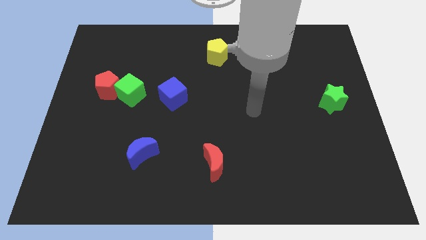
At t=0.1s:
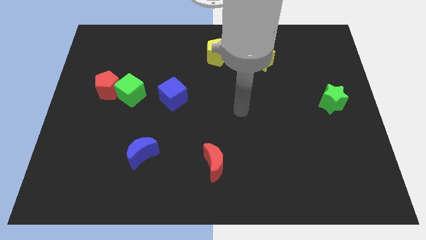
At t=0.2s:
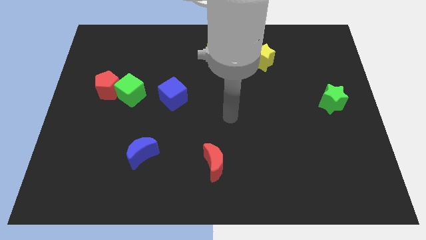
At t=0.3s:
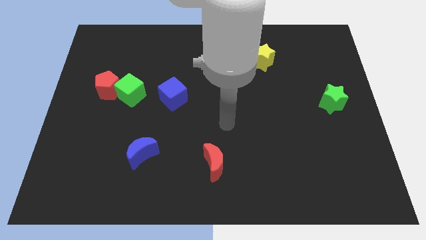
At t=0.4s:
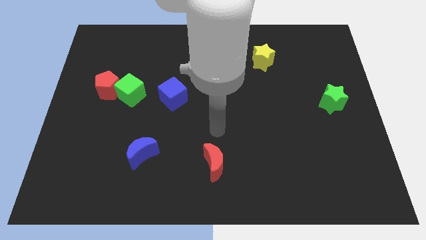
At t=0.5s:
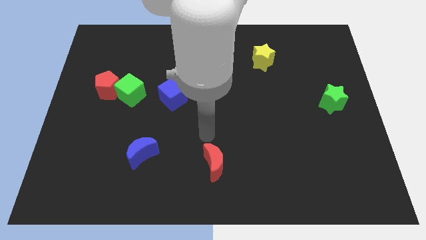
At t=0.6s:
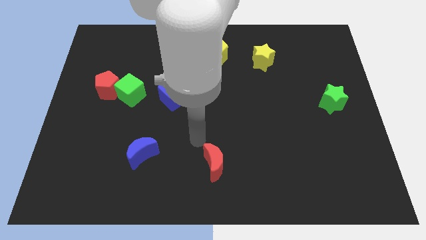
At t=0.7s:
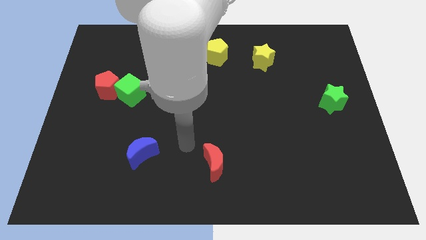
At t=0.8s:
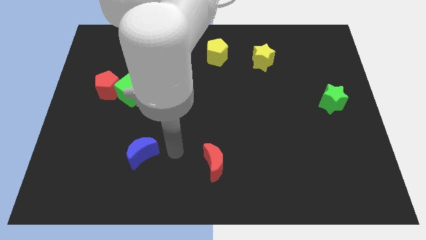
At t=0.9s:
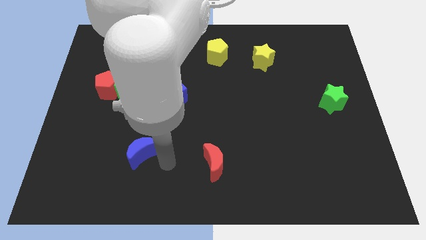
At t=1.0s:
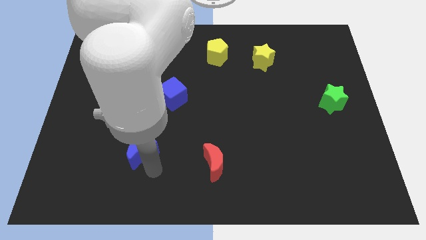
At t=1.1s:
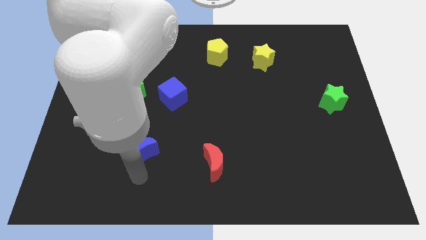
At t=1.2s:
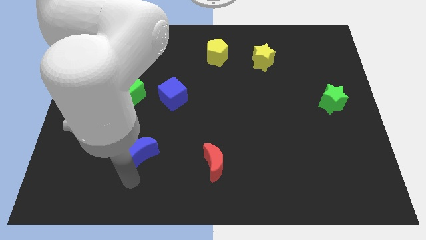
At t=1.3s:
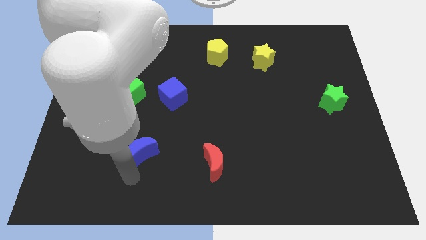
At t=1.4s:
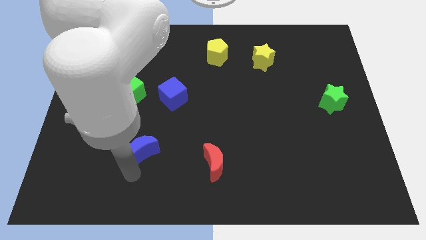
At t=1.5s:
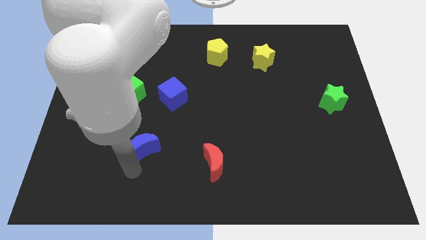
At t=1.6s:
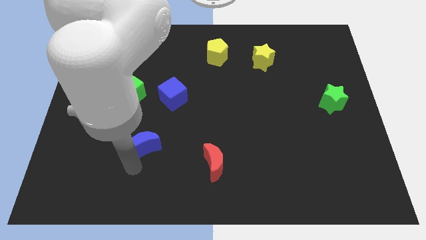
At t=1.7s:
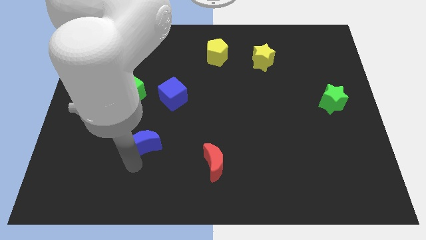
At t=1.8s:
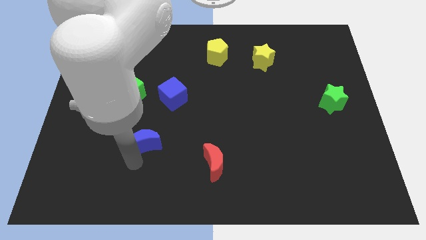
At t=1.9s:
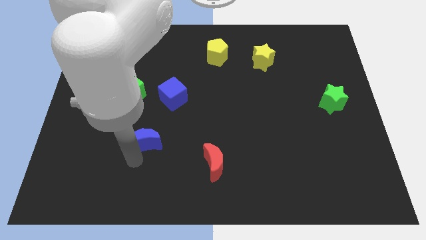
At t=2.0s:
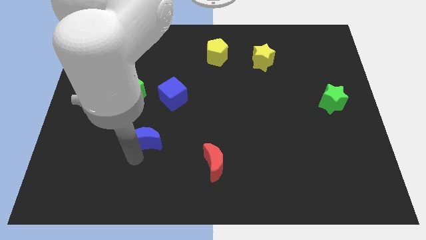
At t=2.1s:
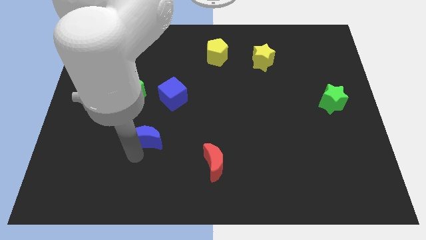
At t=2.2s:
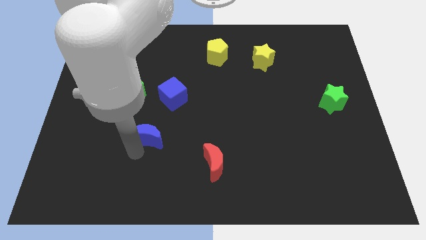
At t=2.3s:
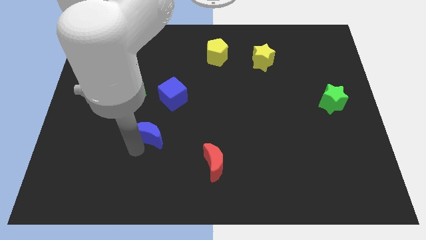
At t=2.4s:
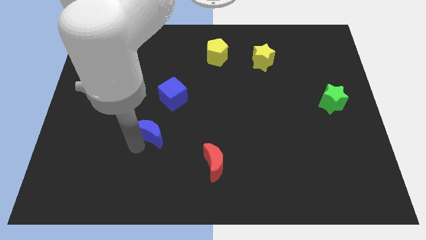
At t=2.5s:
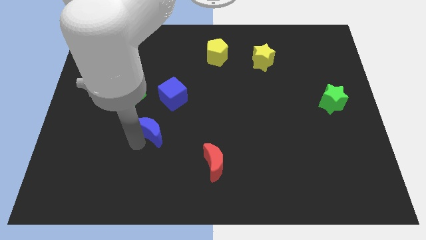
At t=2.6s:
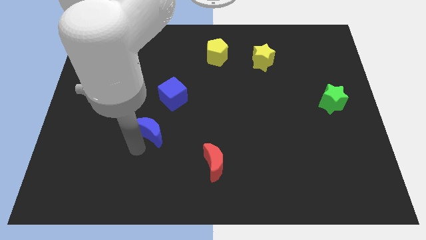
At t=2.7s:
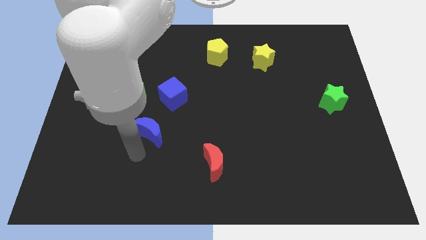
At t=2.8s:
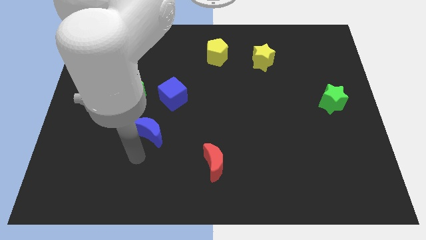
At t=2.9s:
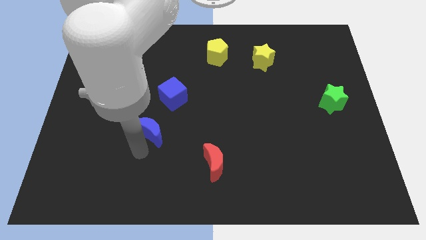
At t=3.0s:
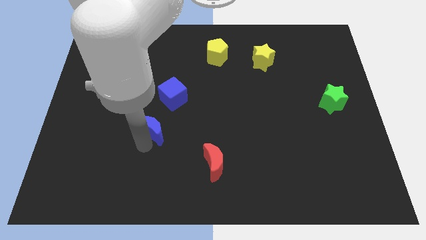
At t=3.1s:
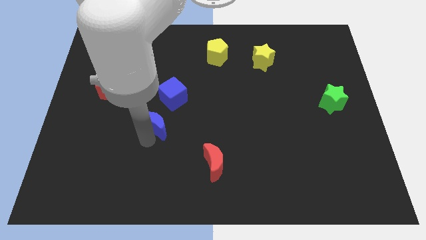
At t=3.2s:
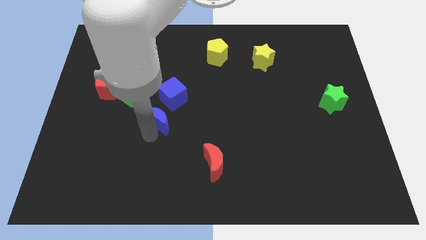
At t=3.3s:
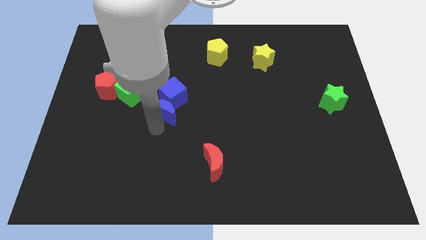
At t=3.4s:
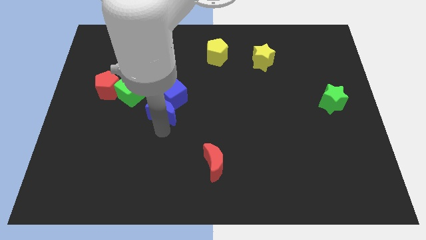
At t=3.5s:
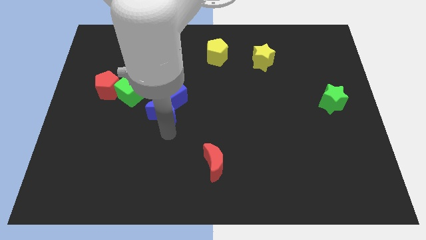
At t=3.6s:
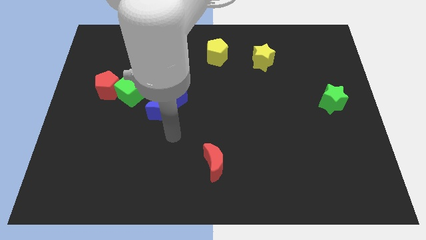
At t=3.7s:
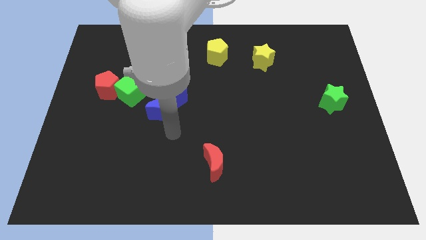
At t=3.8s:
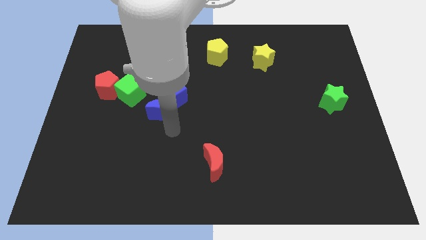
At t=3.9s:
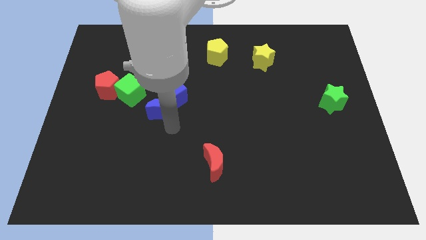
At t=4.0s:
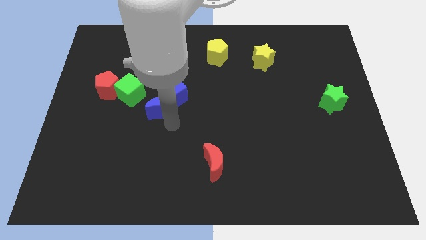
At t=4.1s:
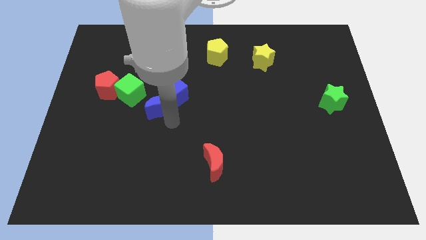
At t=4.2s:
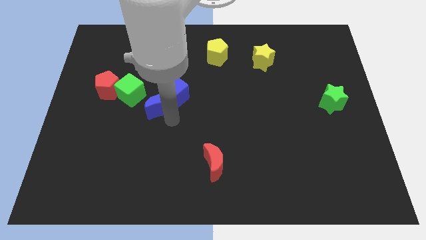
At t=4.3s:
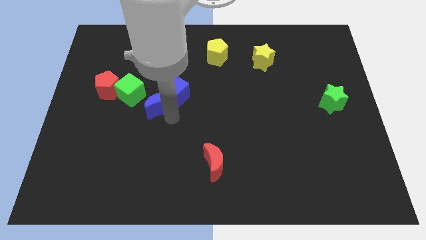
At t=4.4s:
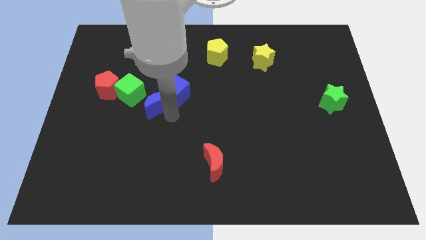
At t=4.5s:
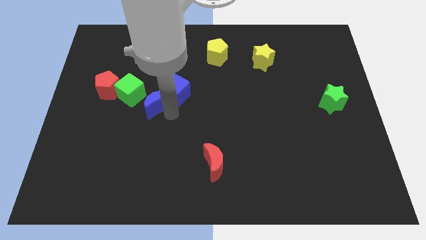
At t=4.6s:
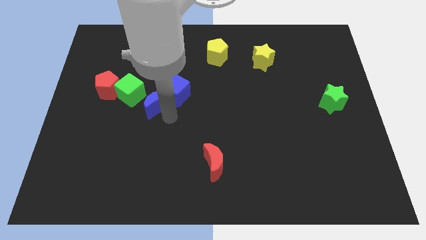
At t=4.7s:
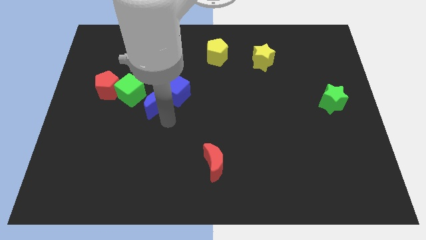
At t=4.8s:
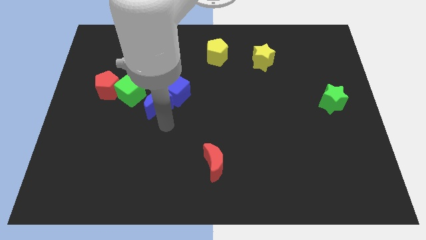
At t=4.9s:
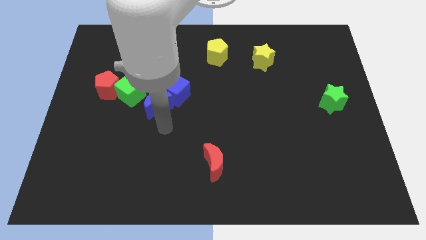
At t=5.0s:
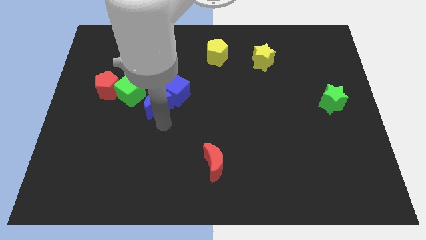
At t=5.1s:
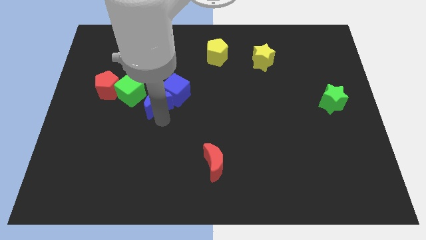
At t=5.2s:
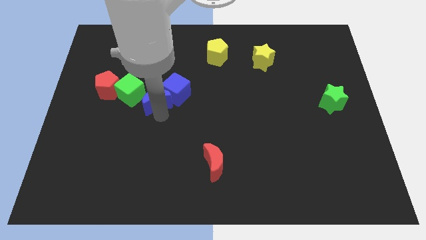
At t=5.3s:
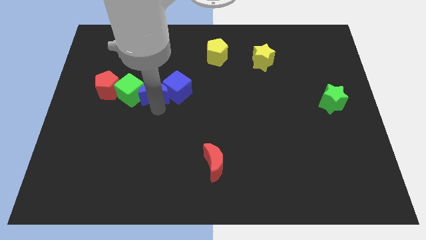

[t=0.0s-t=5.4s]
put the blue moon to the top right side of the green cube

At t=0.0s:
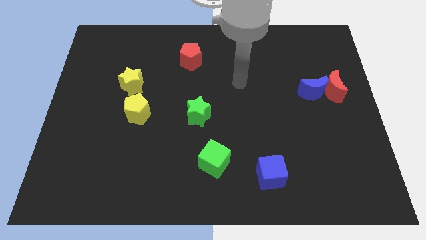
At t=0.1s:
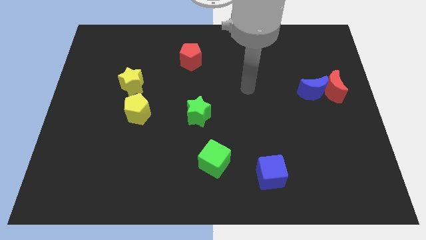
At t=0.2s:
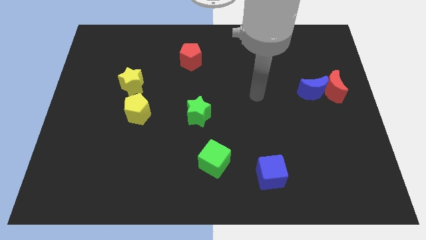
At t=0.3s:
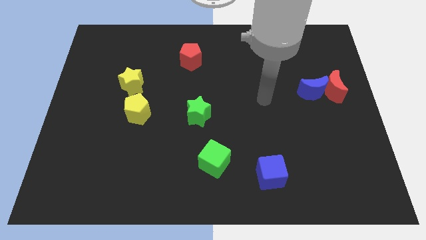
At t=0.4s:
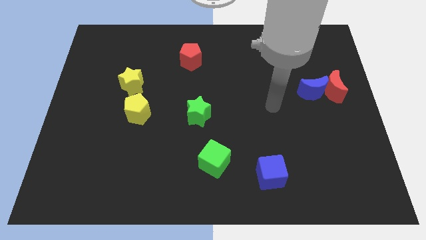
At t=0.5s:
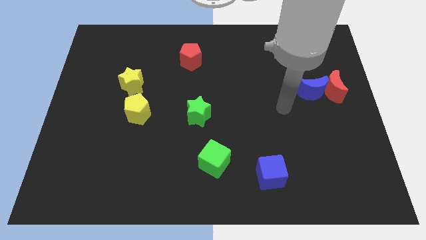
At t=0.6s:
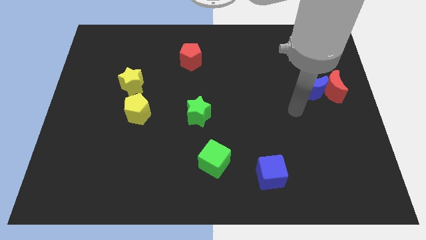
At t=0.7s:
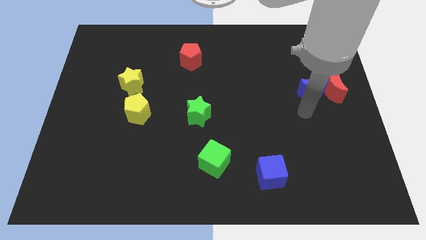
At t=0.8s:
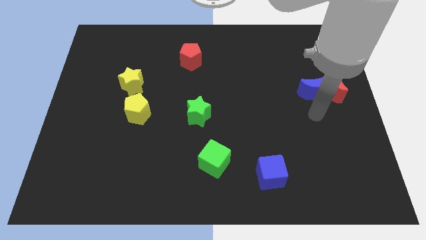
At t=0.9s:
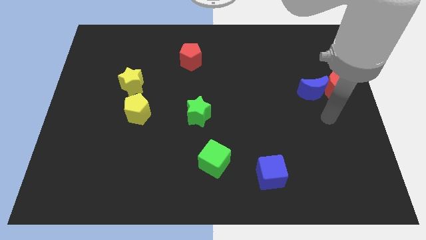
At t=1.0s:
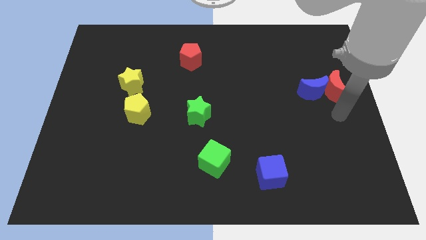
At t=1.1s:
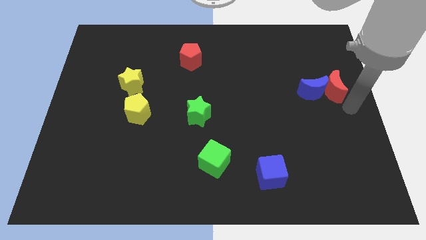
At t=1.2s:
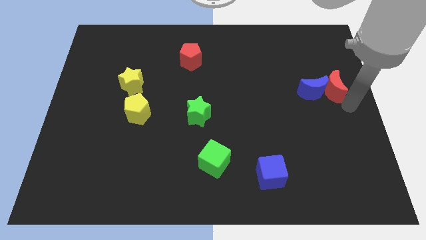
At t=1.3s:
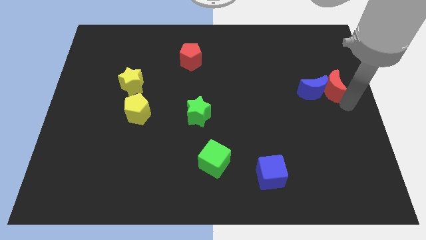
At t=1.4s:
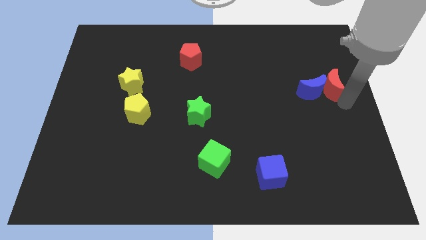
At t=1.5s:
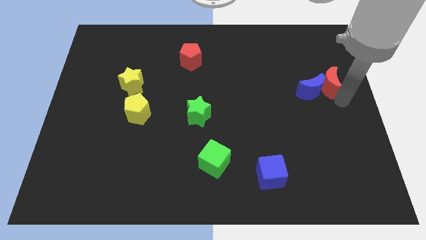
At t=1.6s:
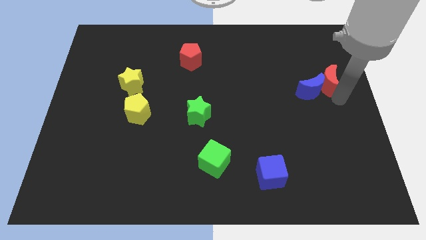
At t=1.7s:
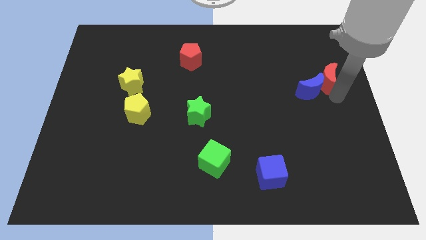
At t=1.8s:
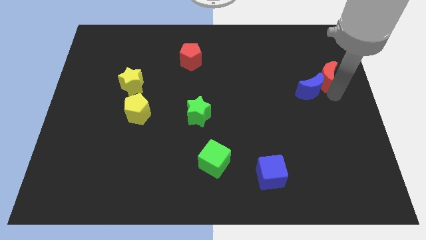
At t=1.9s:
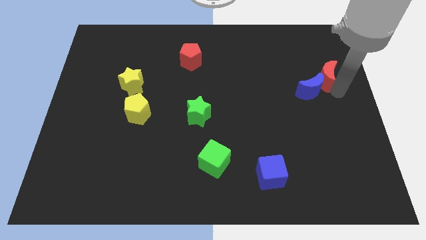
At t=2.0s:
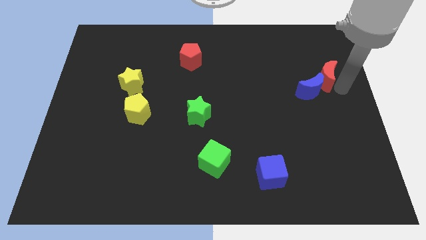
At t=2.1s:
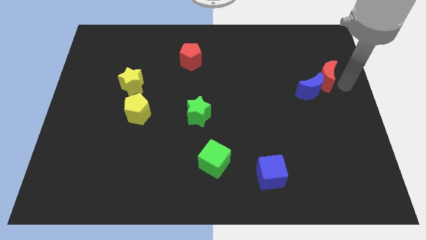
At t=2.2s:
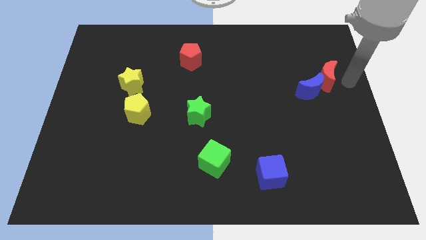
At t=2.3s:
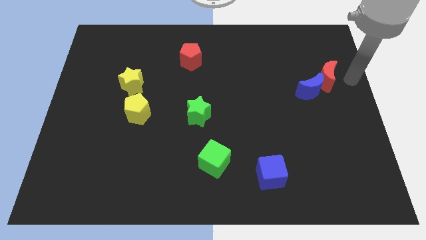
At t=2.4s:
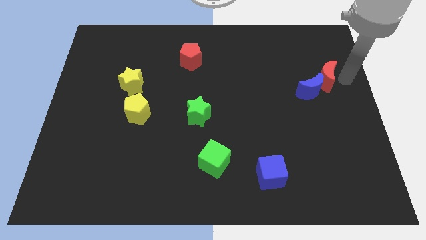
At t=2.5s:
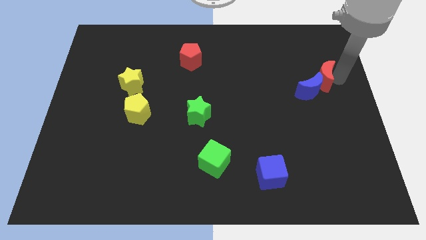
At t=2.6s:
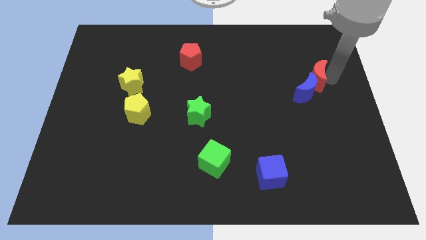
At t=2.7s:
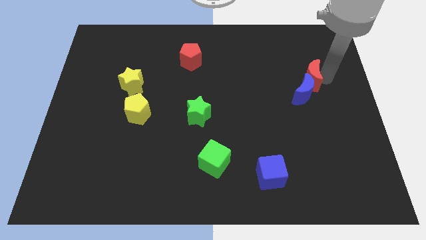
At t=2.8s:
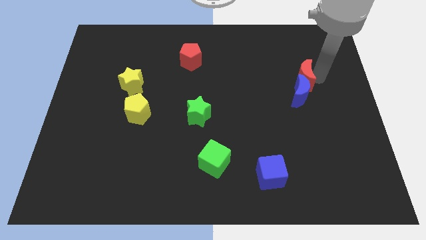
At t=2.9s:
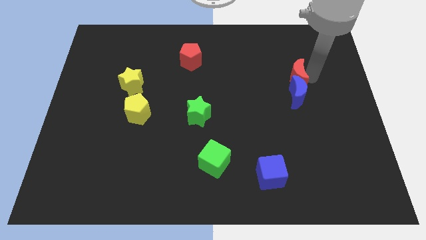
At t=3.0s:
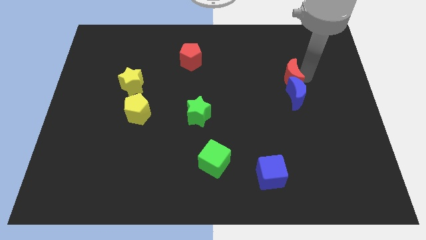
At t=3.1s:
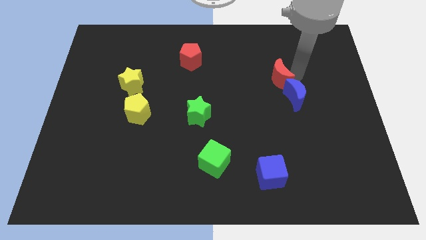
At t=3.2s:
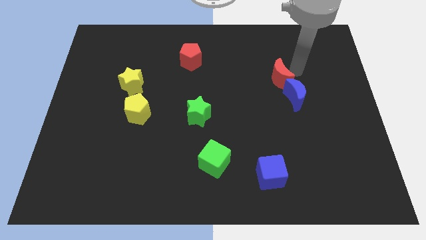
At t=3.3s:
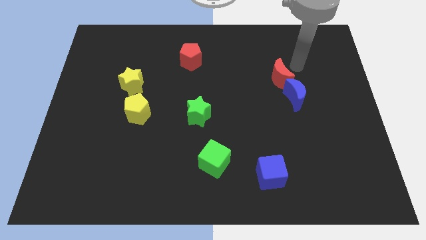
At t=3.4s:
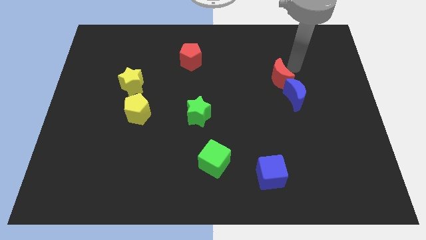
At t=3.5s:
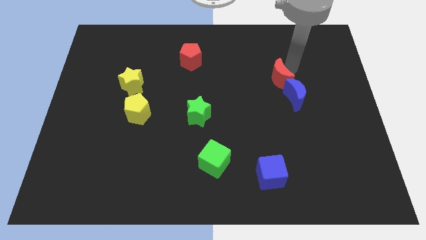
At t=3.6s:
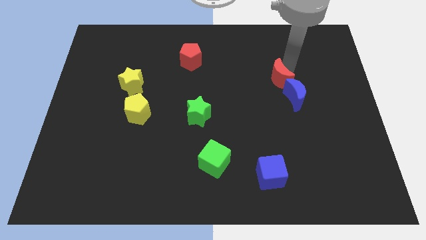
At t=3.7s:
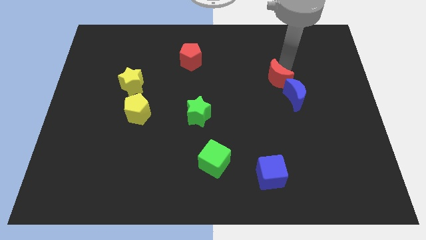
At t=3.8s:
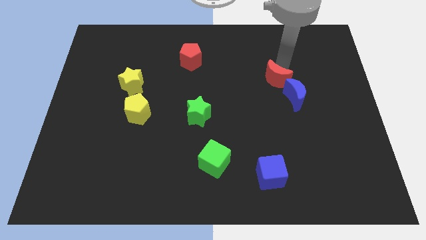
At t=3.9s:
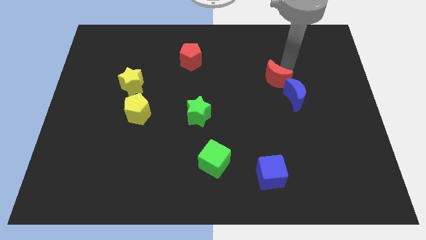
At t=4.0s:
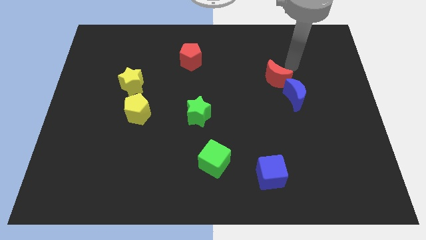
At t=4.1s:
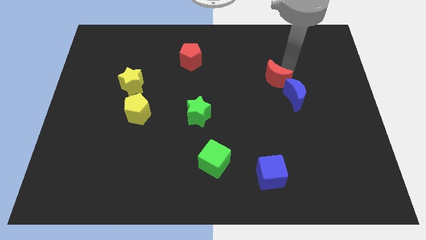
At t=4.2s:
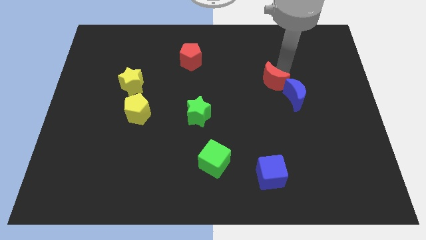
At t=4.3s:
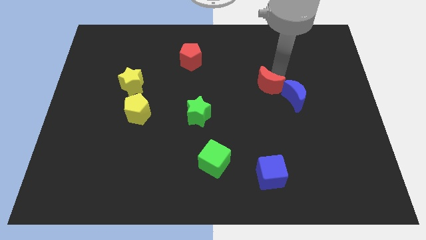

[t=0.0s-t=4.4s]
move the red moon to the left of the blue moon
